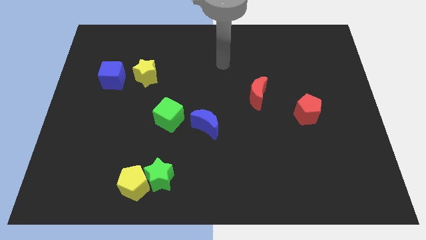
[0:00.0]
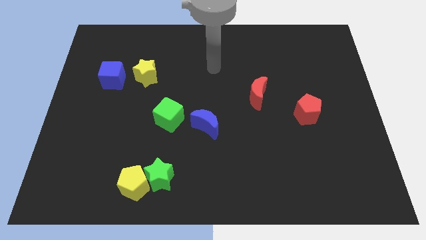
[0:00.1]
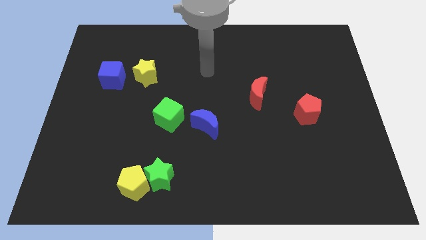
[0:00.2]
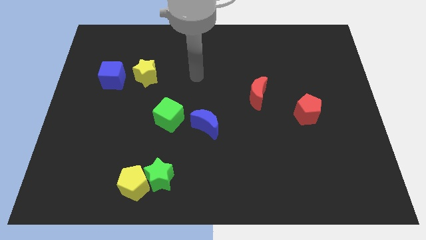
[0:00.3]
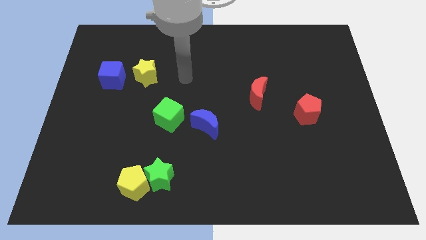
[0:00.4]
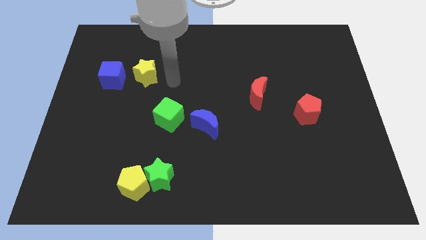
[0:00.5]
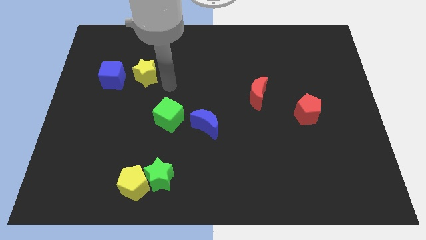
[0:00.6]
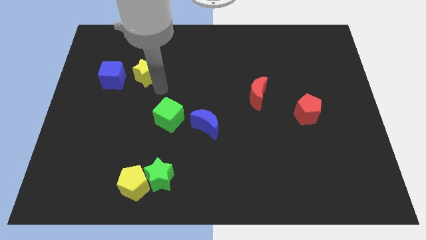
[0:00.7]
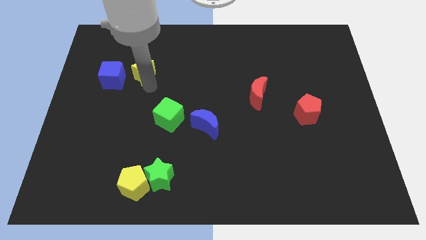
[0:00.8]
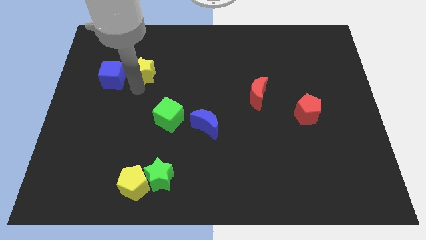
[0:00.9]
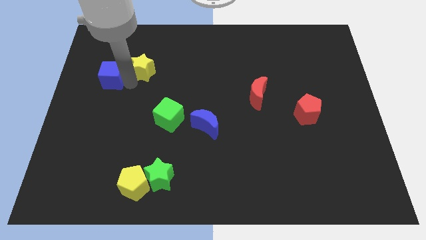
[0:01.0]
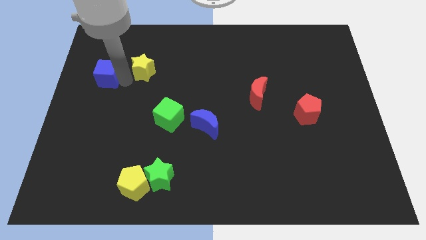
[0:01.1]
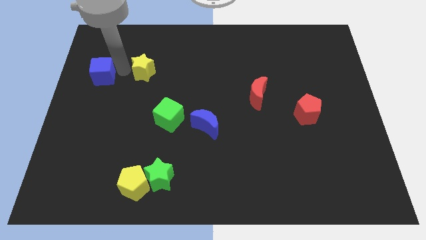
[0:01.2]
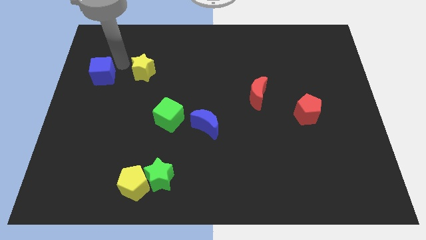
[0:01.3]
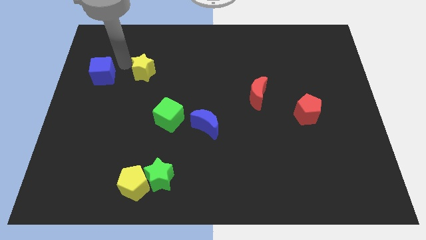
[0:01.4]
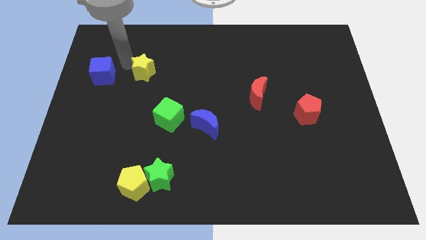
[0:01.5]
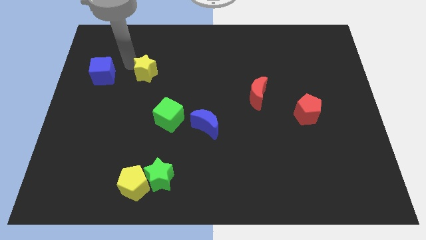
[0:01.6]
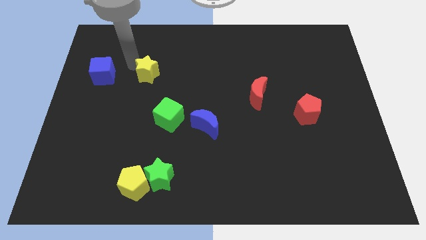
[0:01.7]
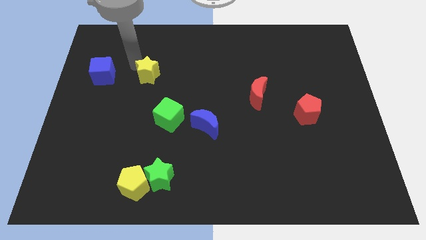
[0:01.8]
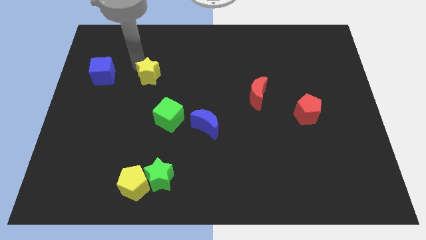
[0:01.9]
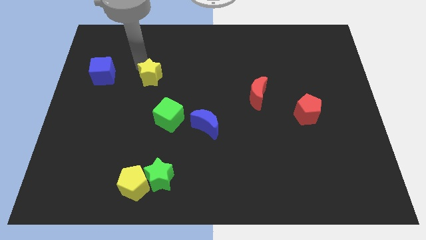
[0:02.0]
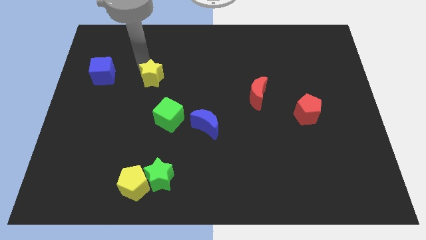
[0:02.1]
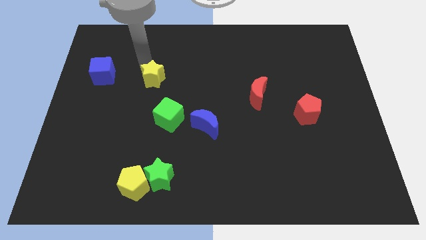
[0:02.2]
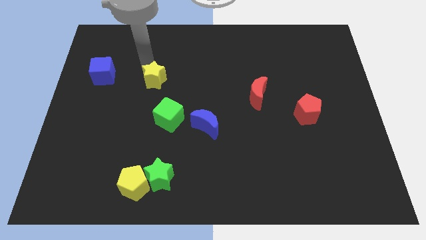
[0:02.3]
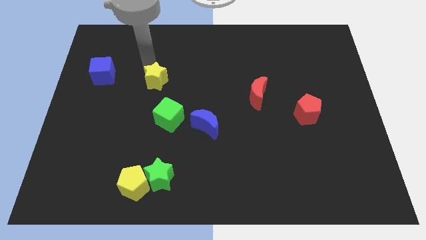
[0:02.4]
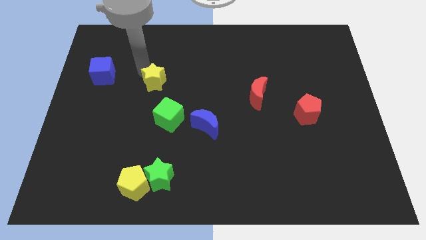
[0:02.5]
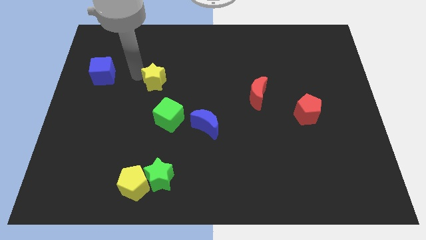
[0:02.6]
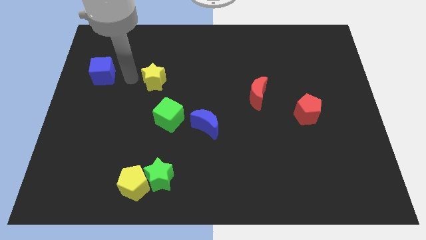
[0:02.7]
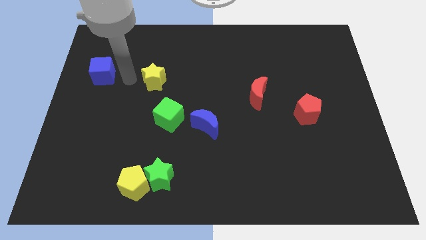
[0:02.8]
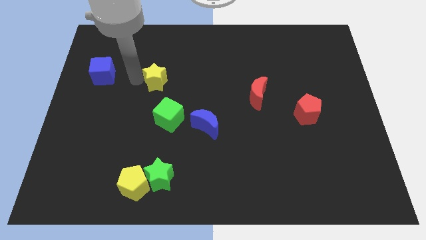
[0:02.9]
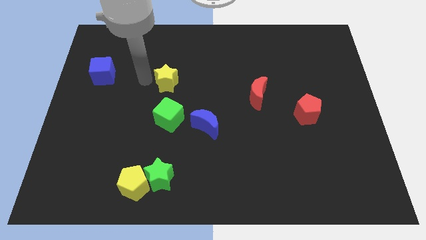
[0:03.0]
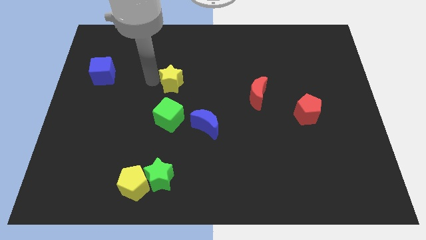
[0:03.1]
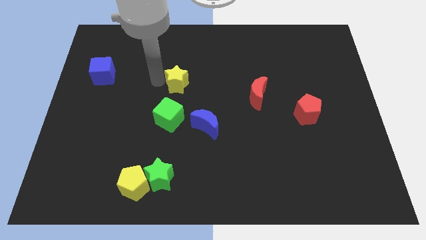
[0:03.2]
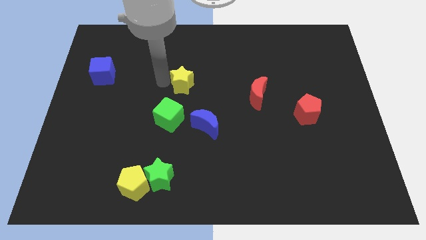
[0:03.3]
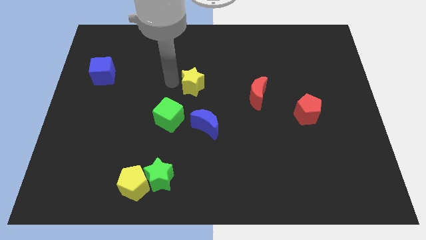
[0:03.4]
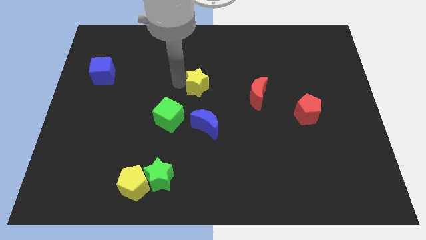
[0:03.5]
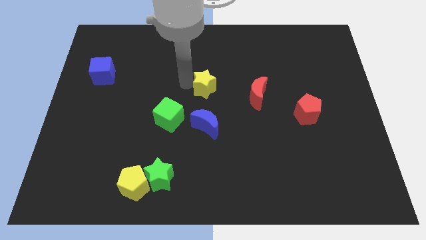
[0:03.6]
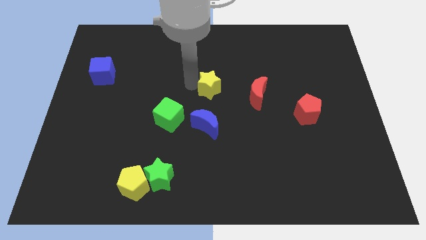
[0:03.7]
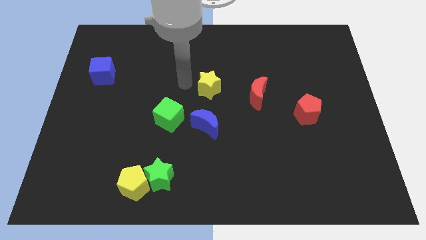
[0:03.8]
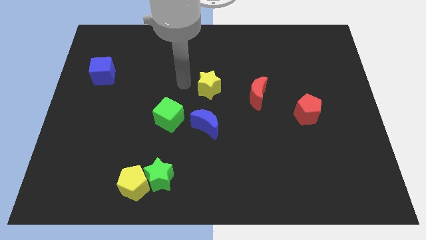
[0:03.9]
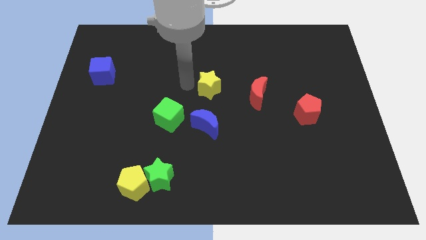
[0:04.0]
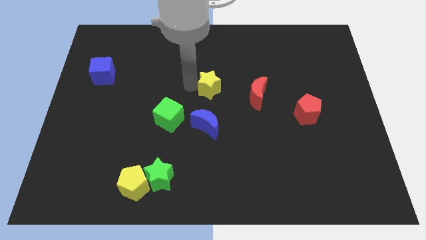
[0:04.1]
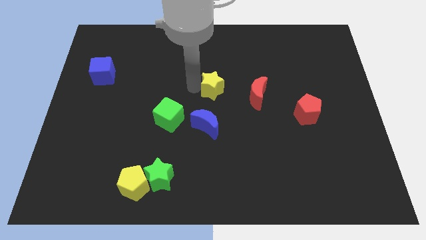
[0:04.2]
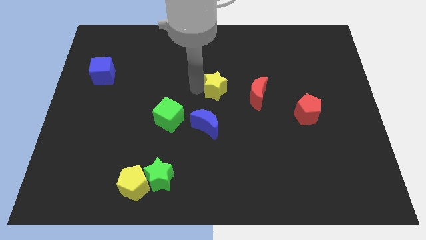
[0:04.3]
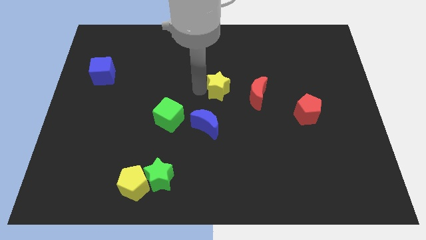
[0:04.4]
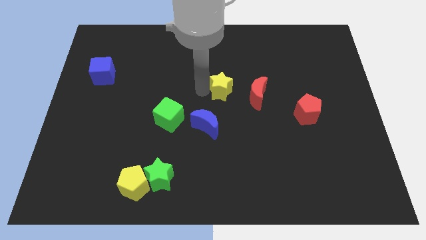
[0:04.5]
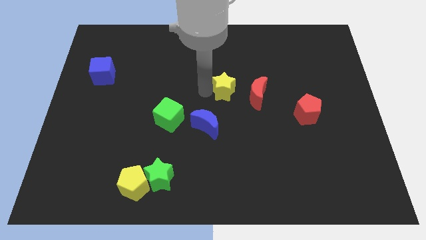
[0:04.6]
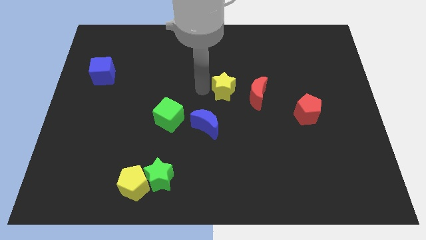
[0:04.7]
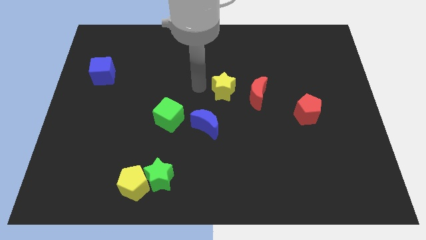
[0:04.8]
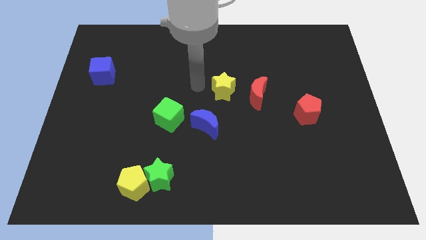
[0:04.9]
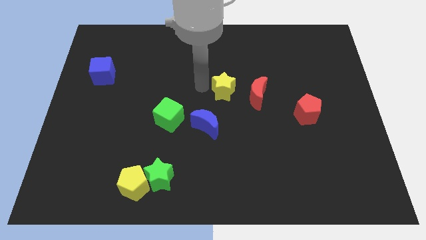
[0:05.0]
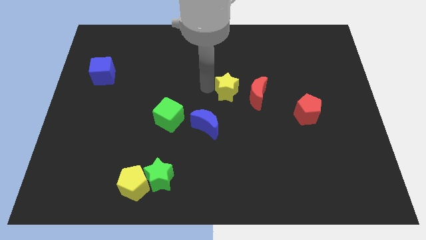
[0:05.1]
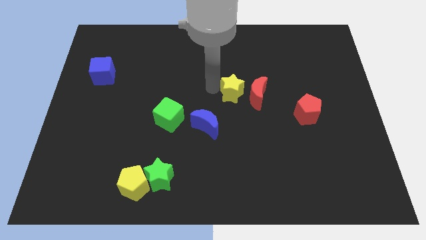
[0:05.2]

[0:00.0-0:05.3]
slide the yellow star next to the red moon

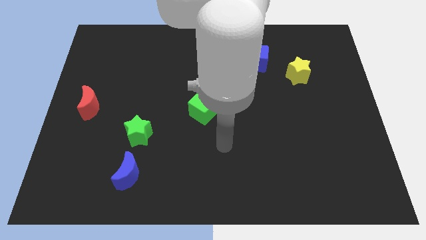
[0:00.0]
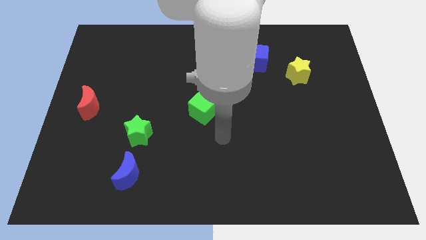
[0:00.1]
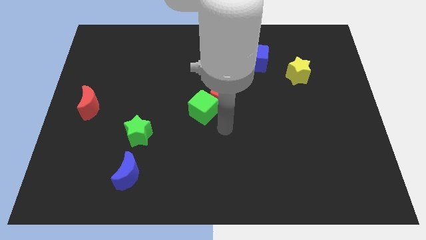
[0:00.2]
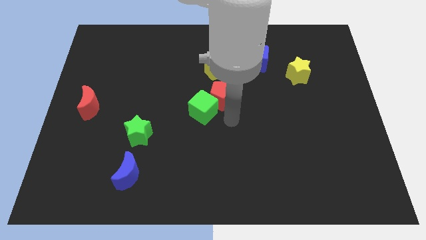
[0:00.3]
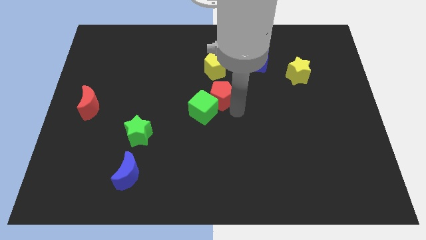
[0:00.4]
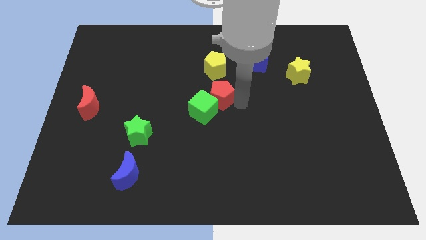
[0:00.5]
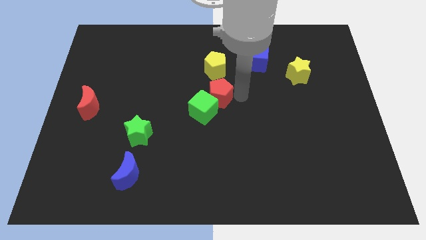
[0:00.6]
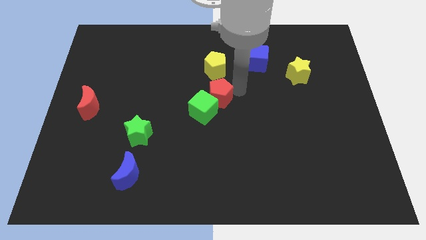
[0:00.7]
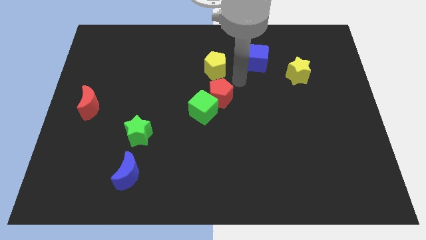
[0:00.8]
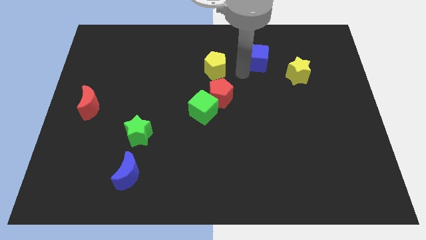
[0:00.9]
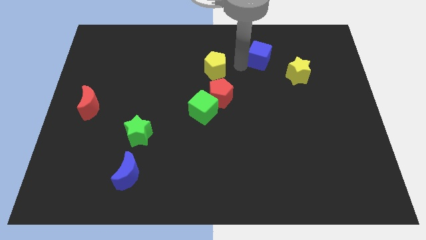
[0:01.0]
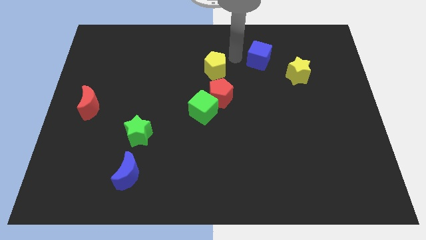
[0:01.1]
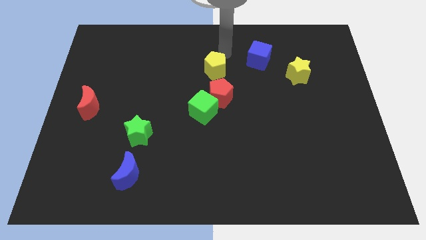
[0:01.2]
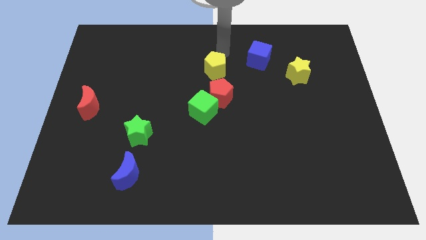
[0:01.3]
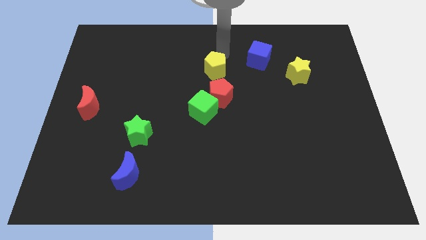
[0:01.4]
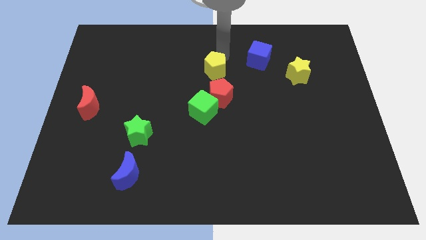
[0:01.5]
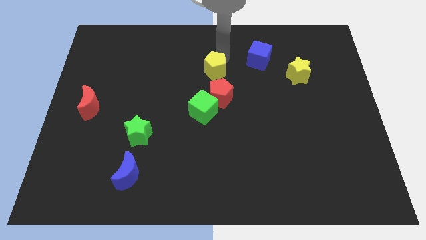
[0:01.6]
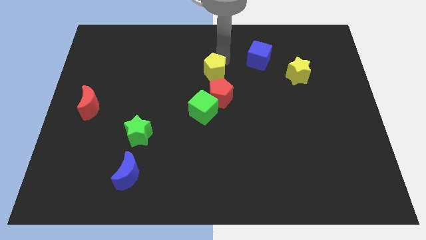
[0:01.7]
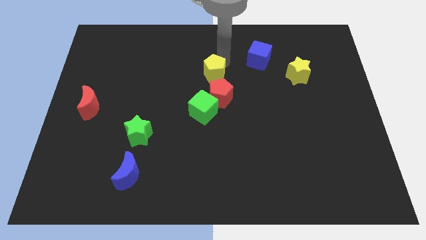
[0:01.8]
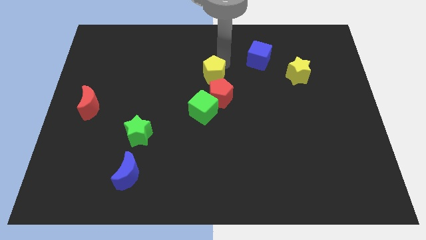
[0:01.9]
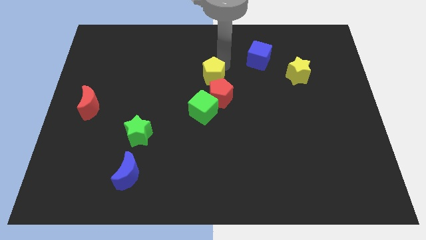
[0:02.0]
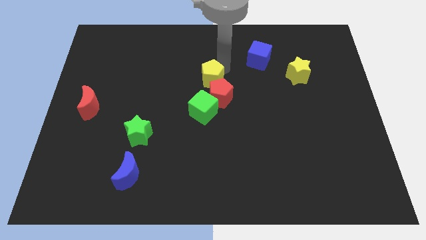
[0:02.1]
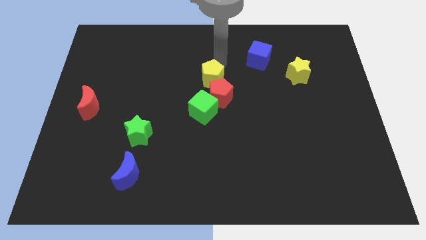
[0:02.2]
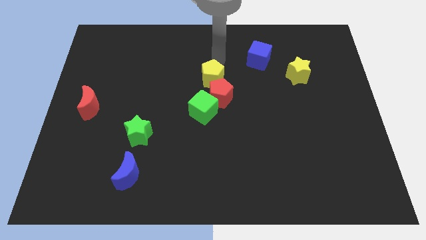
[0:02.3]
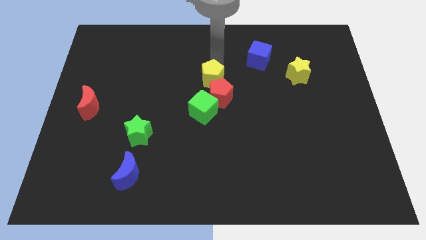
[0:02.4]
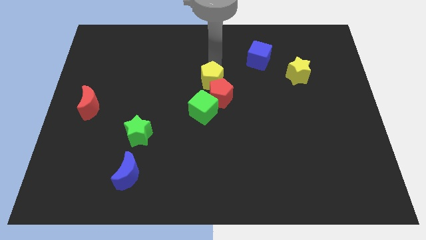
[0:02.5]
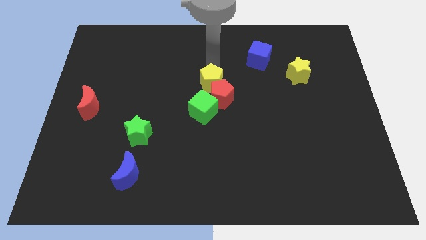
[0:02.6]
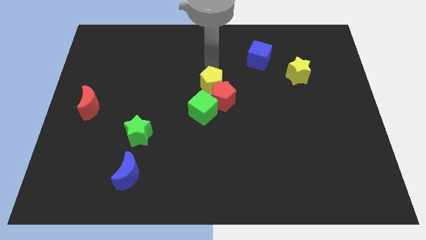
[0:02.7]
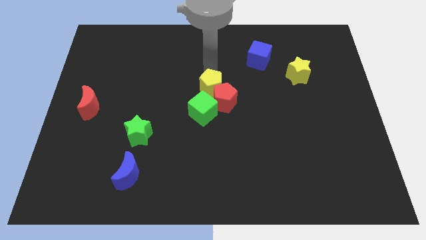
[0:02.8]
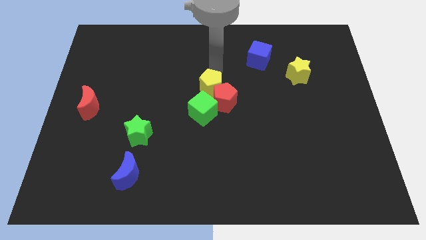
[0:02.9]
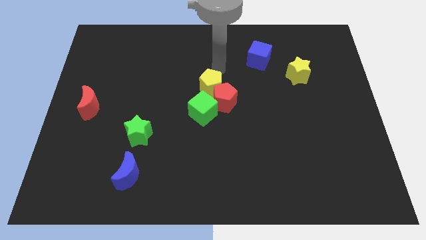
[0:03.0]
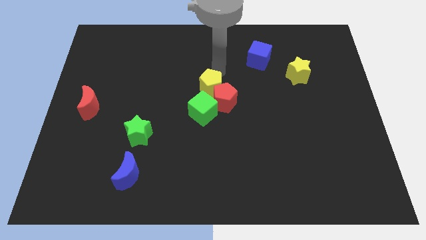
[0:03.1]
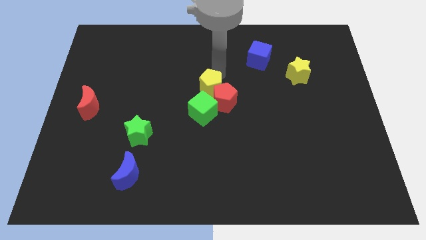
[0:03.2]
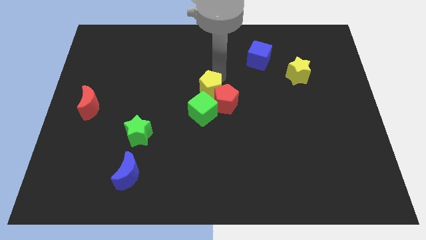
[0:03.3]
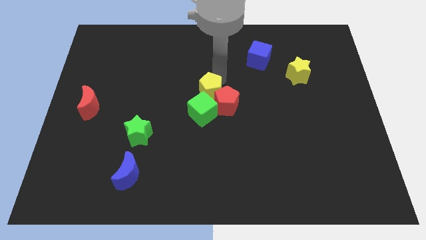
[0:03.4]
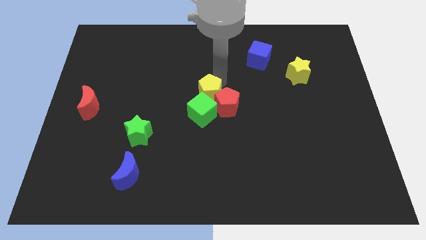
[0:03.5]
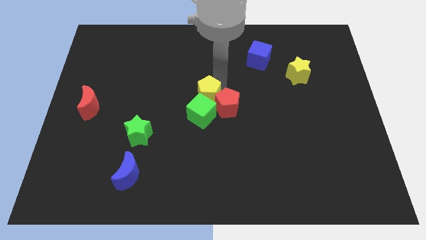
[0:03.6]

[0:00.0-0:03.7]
push the yellow pentagon close to the green cube
